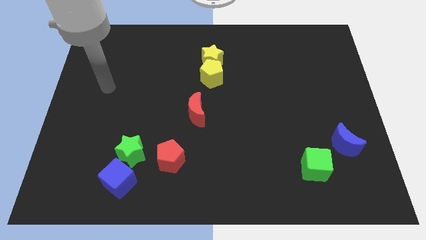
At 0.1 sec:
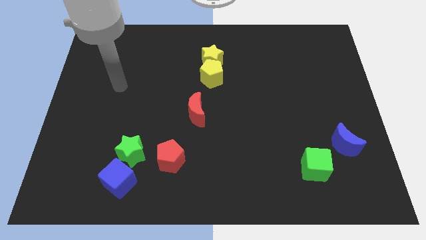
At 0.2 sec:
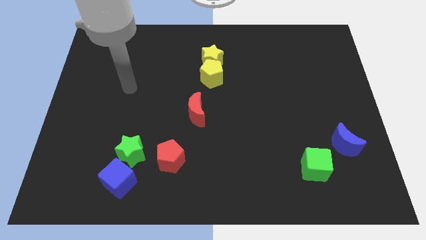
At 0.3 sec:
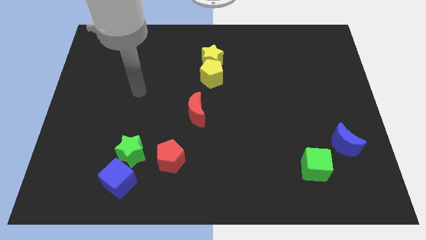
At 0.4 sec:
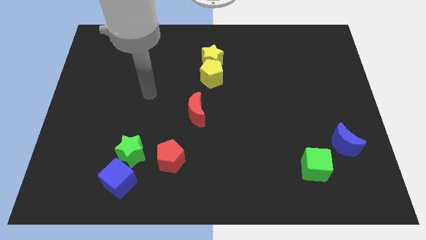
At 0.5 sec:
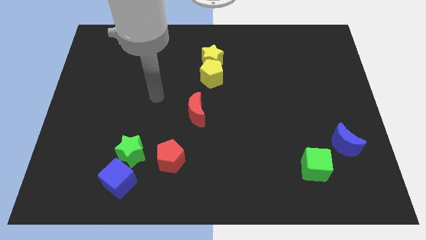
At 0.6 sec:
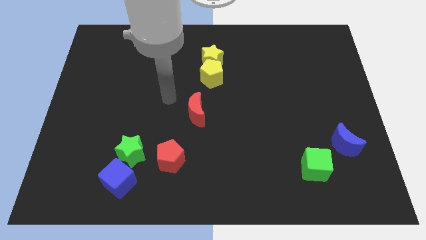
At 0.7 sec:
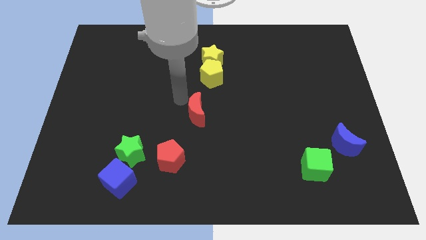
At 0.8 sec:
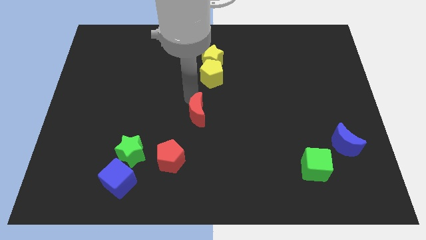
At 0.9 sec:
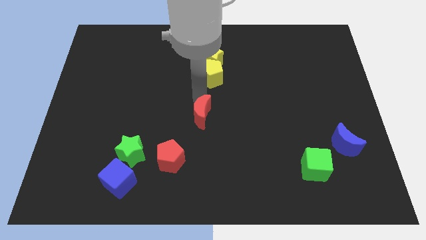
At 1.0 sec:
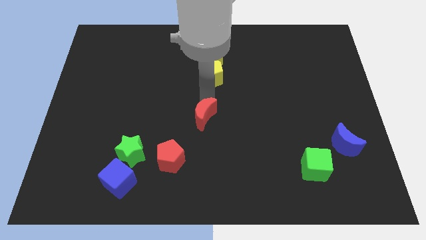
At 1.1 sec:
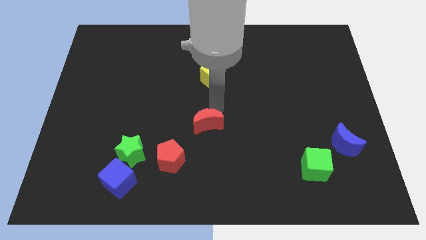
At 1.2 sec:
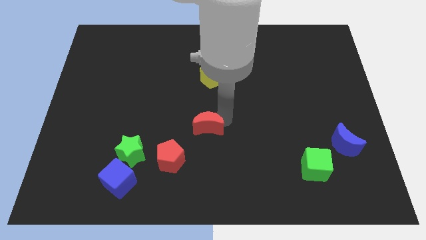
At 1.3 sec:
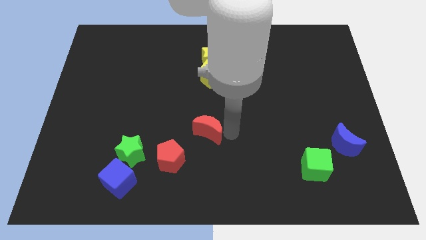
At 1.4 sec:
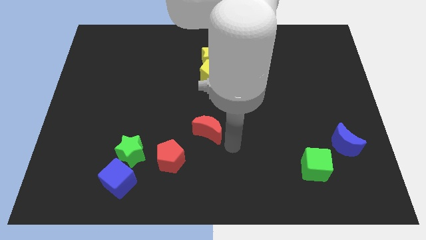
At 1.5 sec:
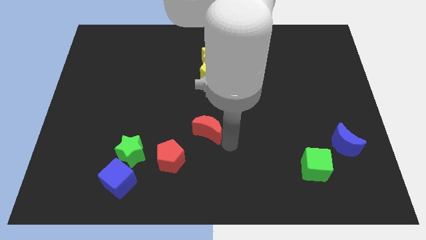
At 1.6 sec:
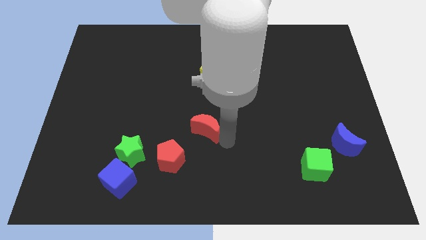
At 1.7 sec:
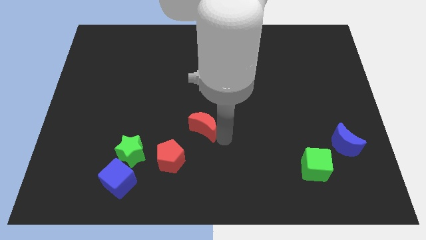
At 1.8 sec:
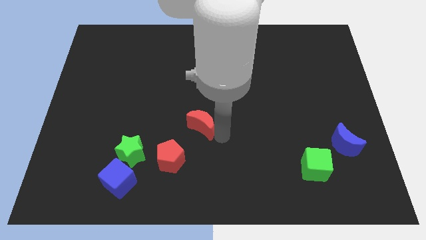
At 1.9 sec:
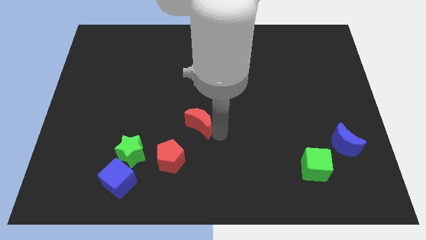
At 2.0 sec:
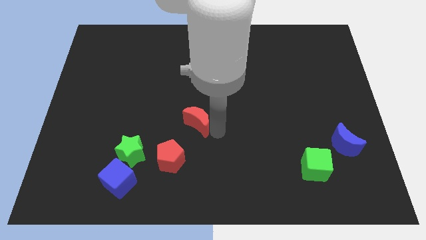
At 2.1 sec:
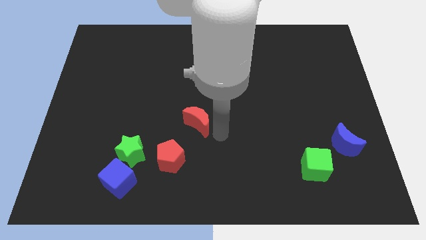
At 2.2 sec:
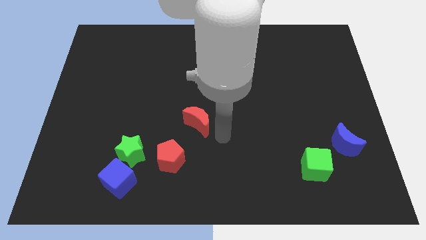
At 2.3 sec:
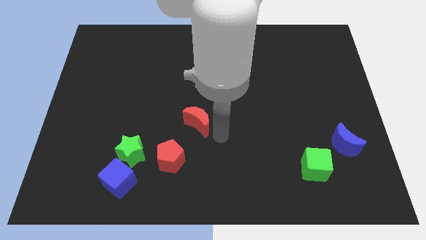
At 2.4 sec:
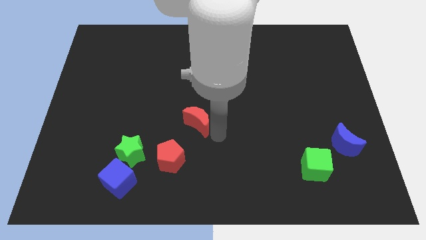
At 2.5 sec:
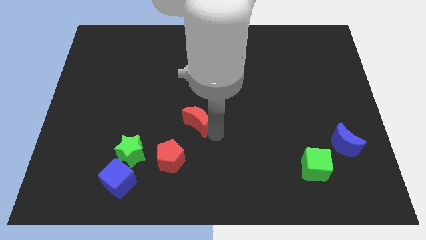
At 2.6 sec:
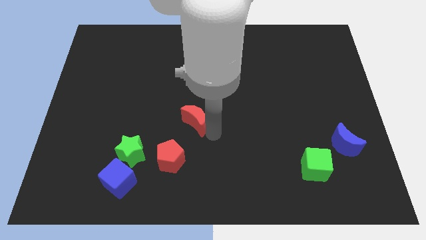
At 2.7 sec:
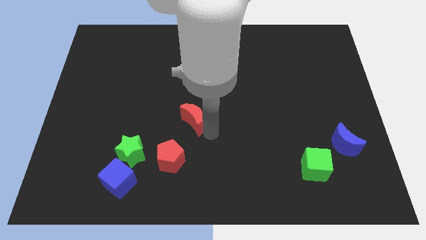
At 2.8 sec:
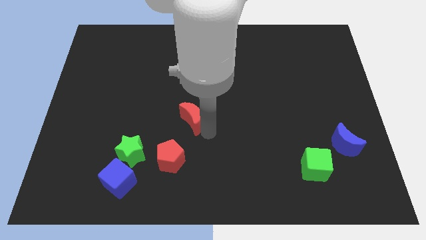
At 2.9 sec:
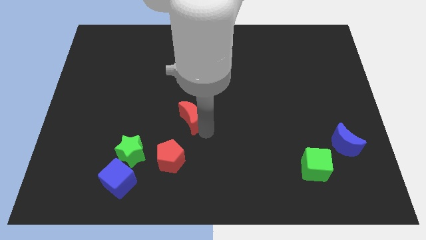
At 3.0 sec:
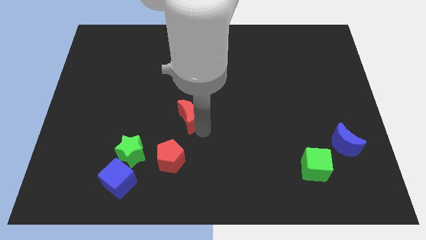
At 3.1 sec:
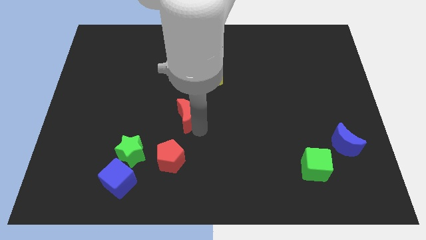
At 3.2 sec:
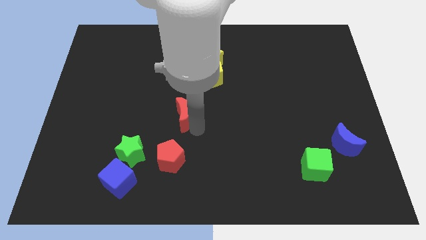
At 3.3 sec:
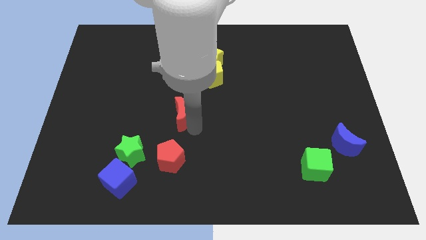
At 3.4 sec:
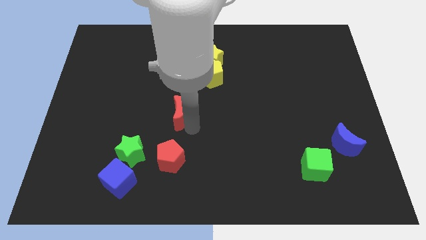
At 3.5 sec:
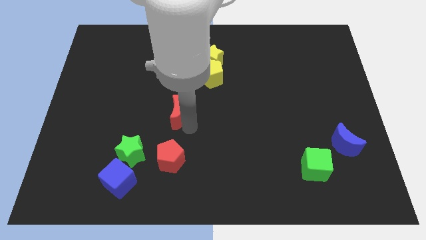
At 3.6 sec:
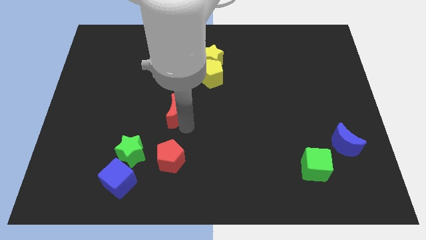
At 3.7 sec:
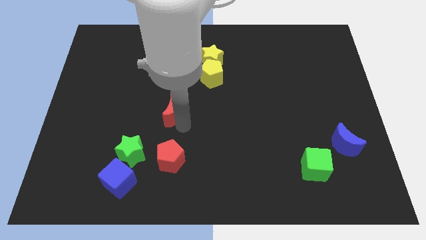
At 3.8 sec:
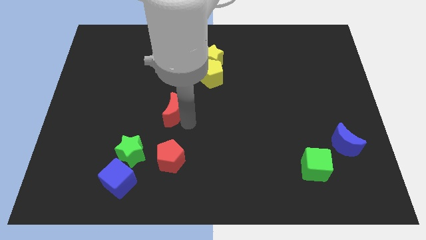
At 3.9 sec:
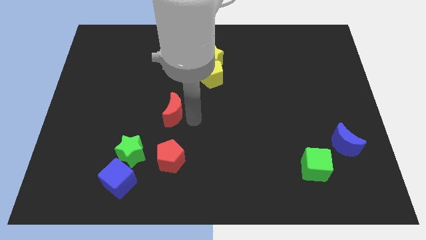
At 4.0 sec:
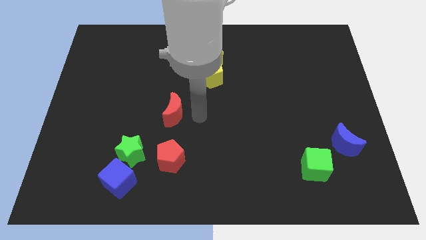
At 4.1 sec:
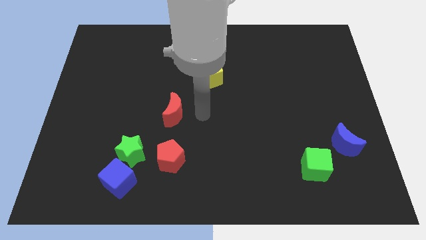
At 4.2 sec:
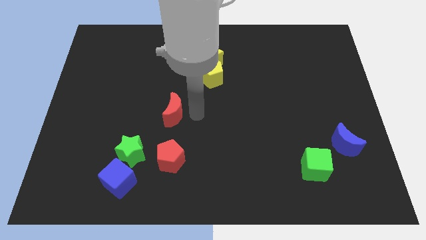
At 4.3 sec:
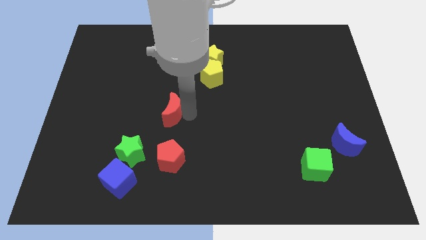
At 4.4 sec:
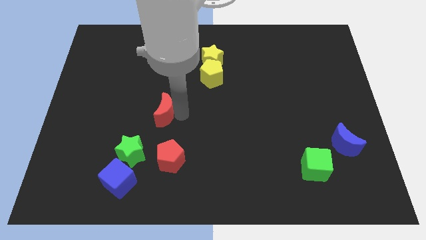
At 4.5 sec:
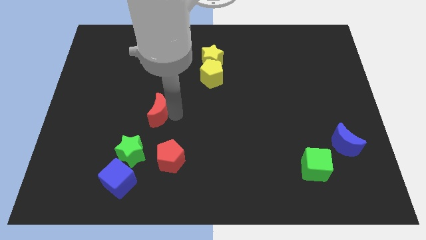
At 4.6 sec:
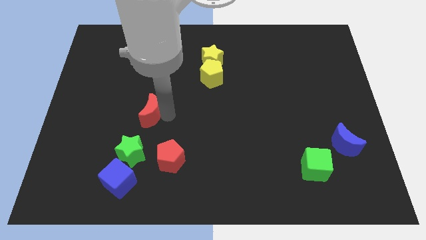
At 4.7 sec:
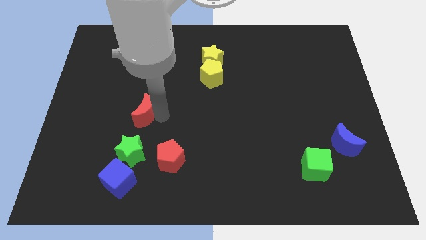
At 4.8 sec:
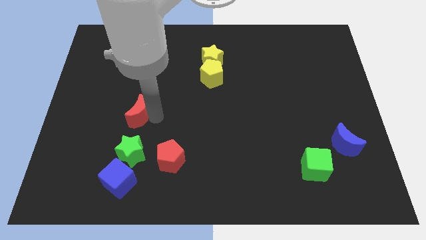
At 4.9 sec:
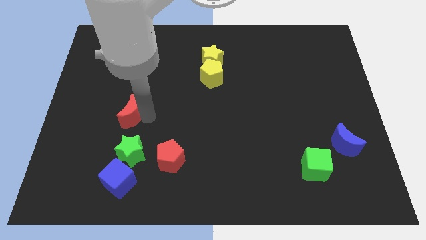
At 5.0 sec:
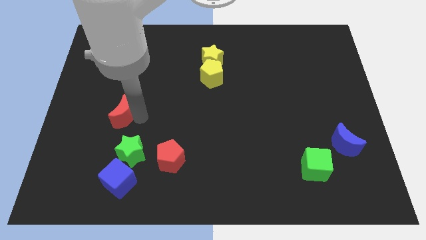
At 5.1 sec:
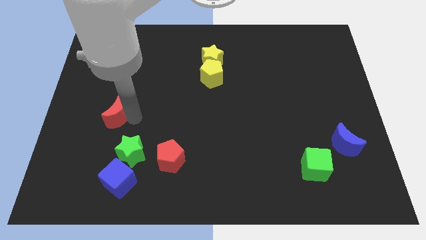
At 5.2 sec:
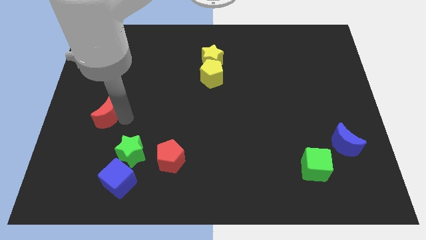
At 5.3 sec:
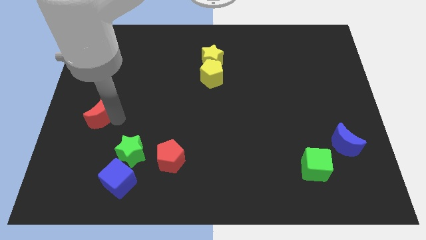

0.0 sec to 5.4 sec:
slide the red moon to the center left
